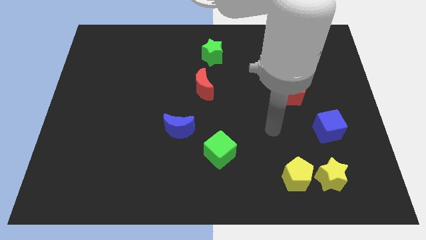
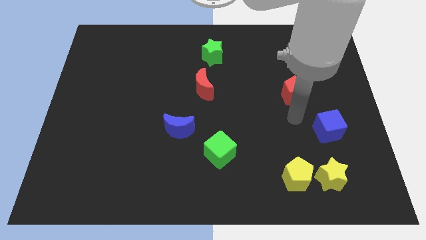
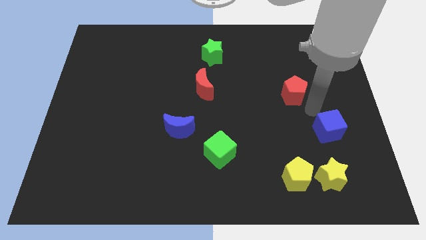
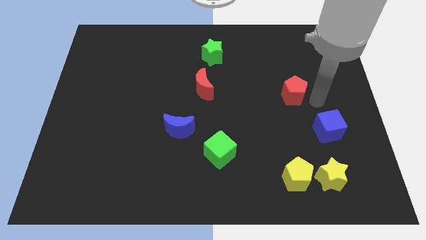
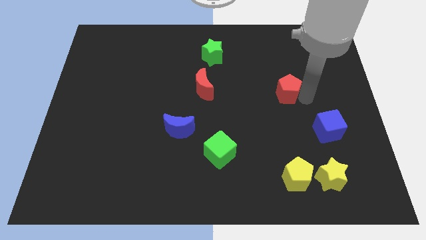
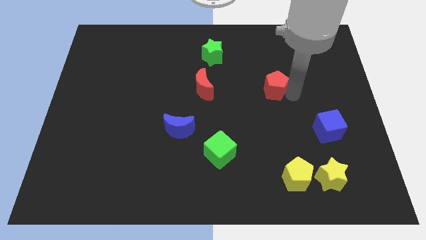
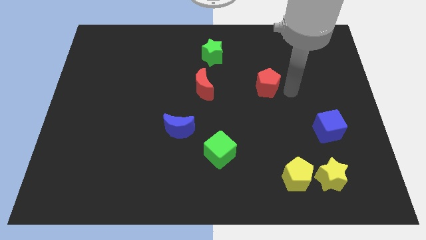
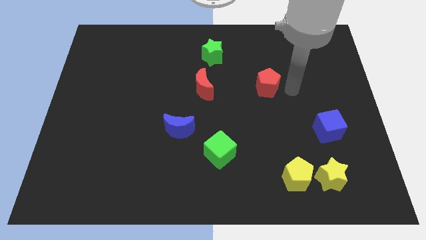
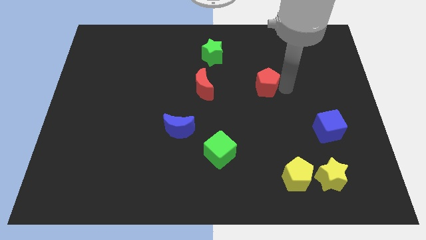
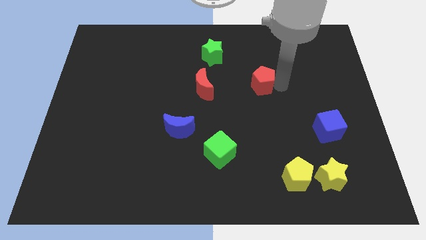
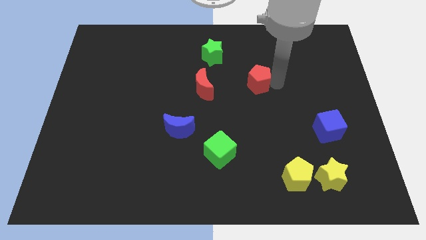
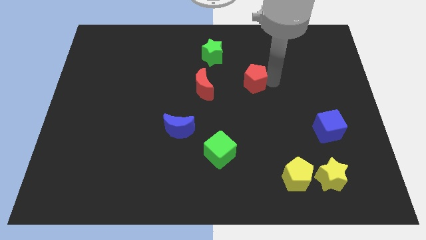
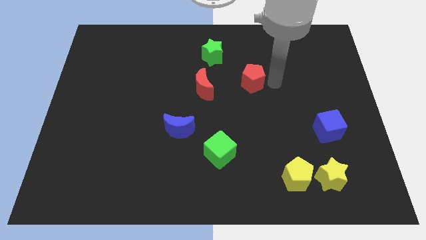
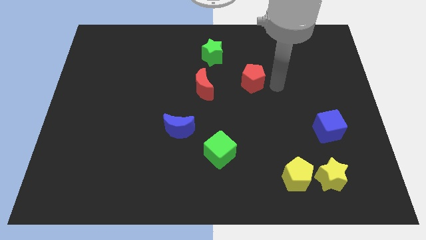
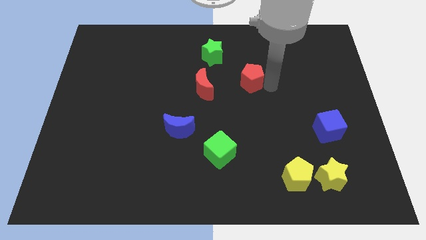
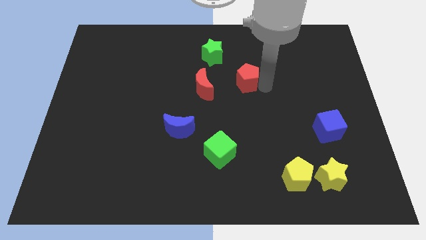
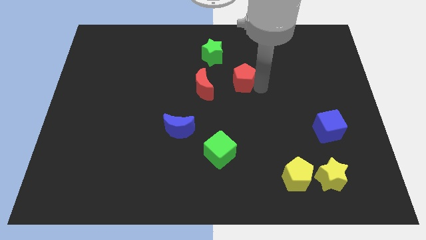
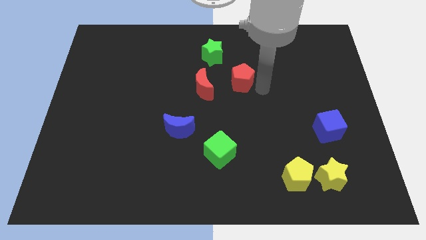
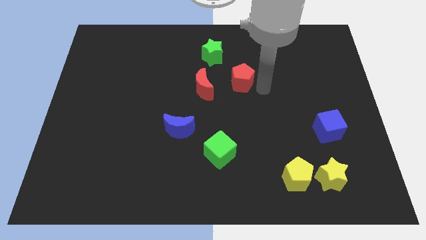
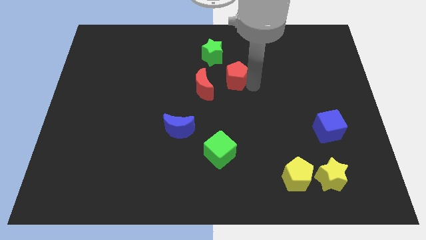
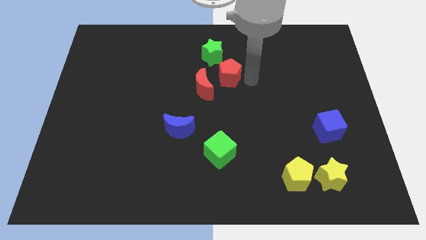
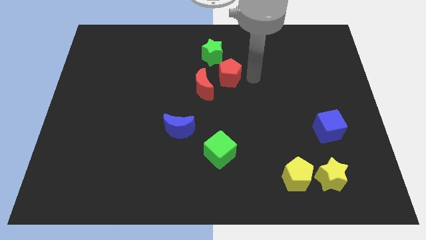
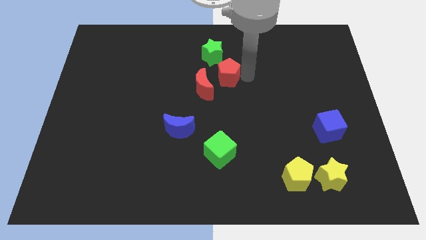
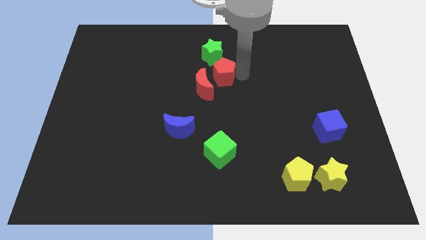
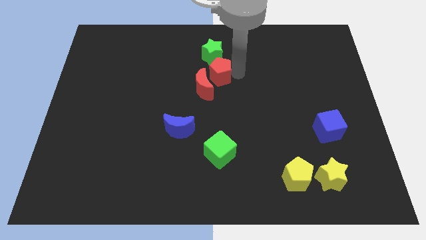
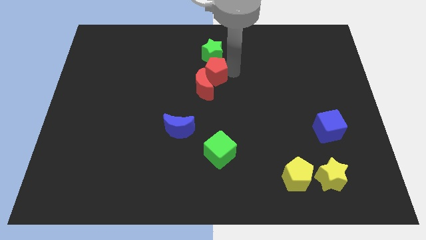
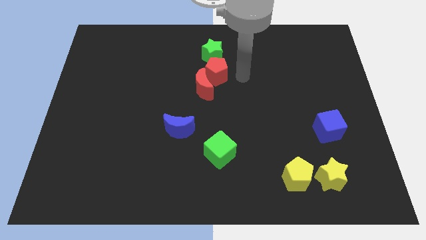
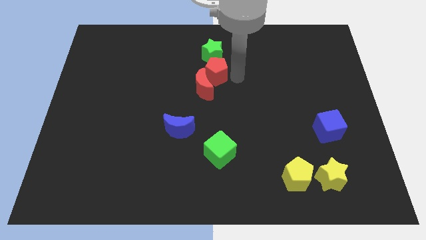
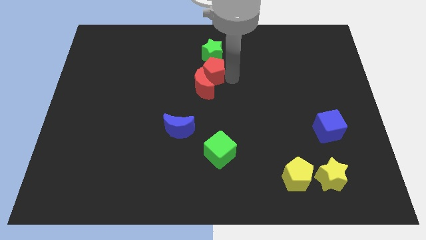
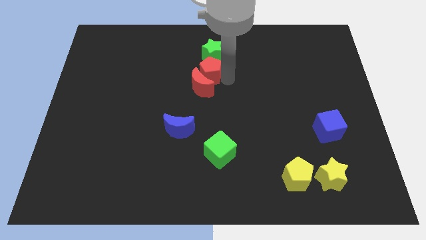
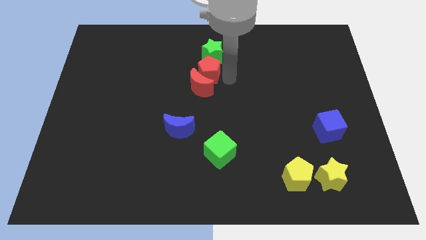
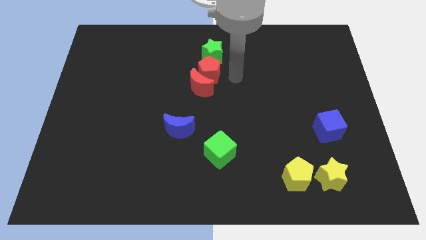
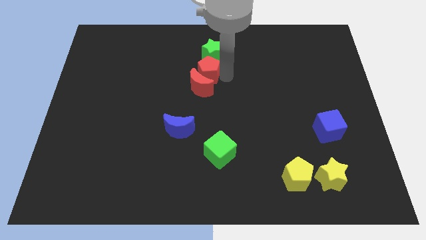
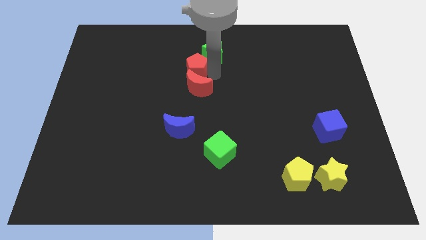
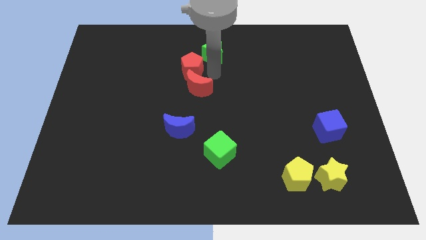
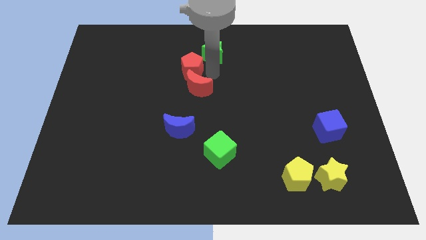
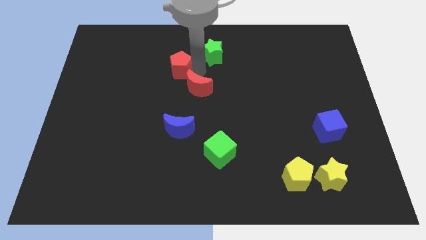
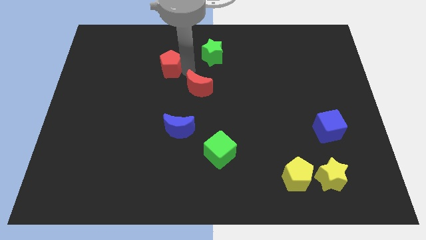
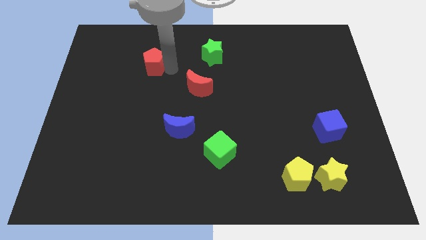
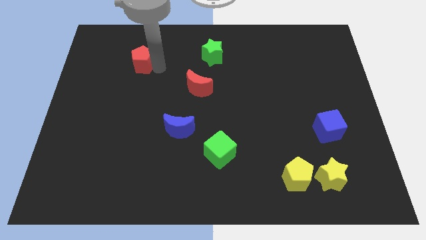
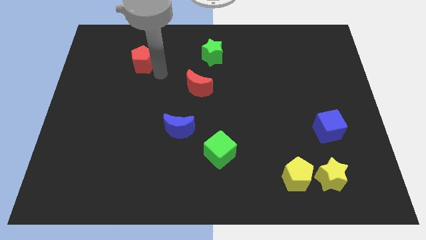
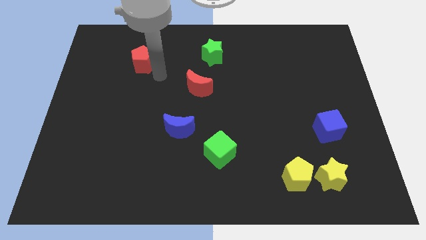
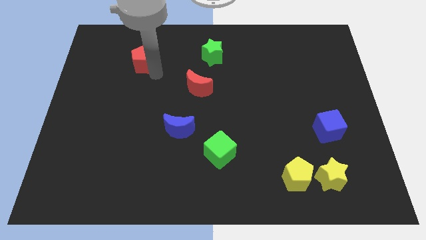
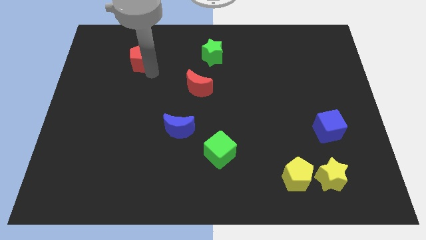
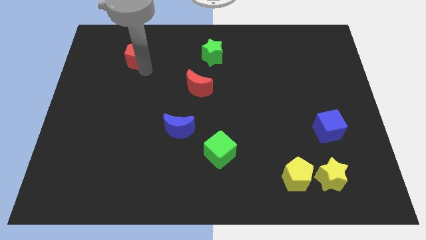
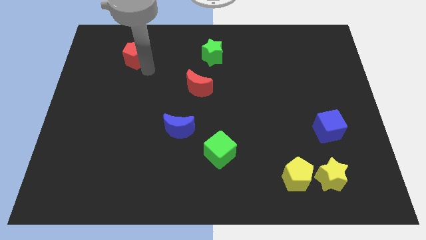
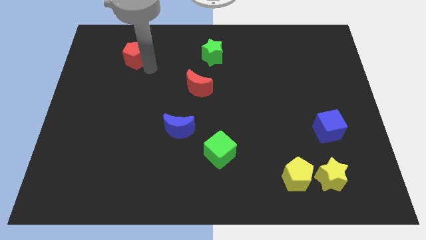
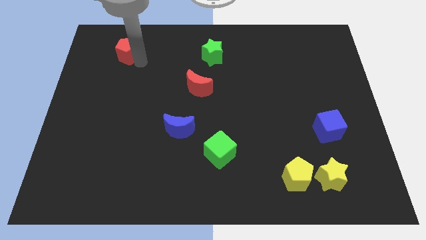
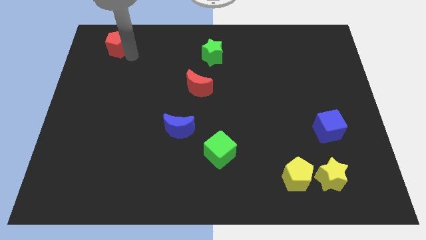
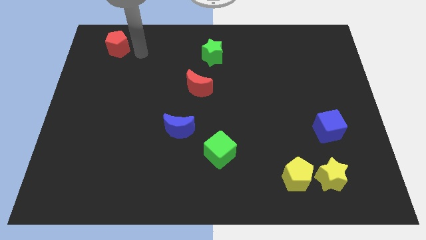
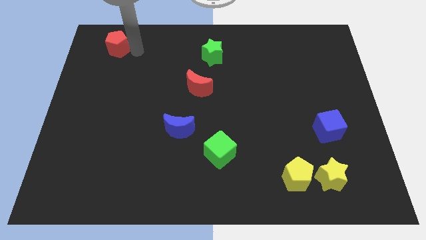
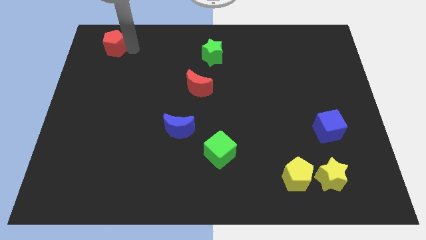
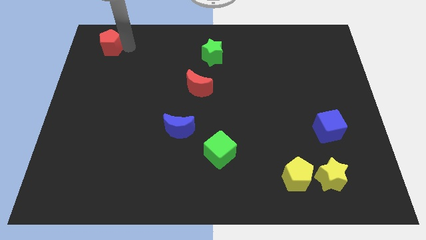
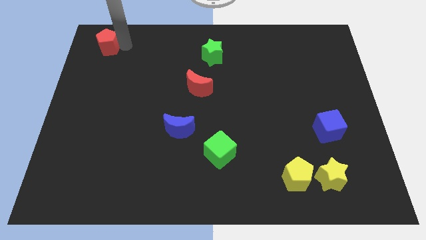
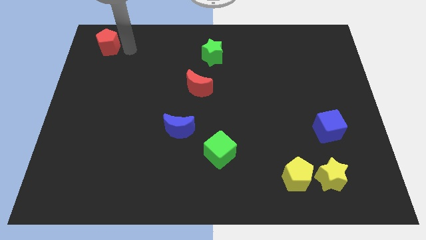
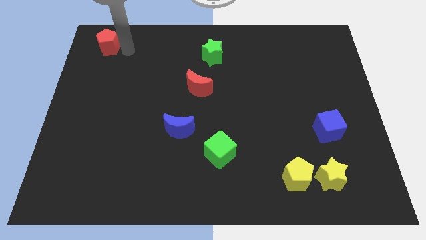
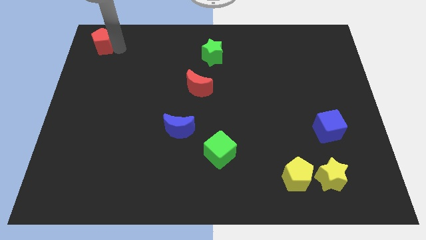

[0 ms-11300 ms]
slide the red pentagon to the top left
